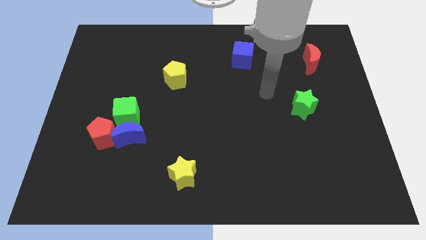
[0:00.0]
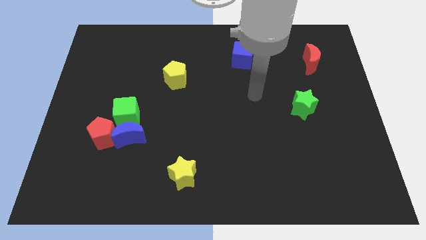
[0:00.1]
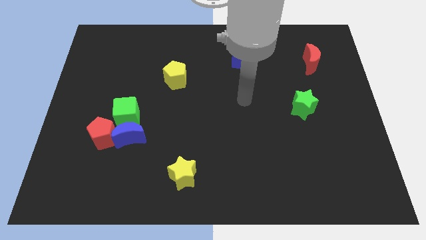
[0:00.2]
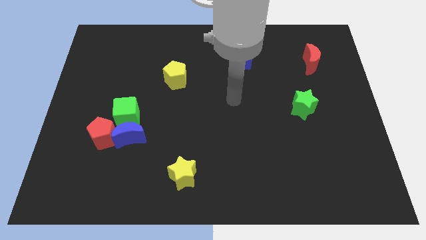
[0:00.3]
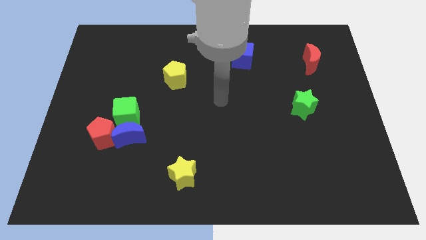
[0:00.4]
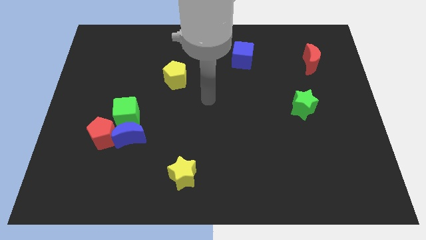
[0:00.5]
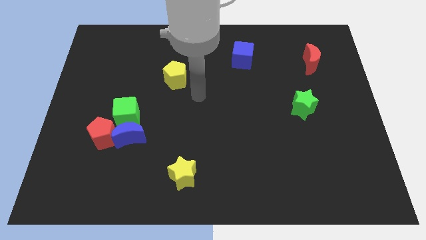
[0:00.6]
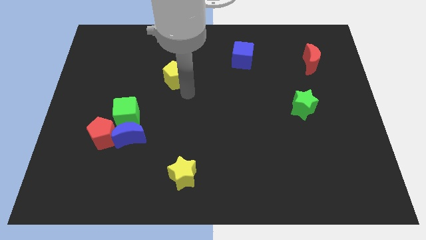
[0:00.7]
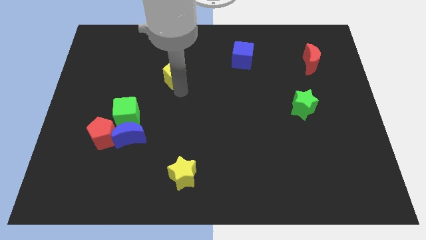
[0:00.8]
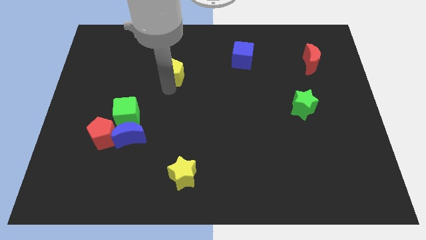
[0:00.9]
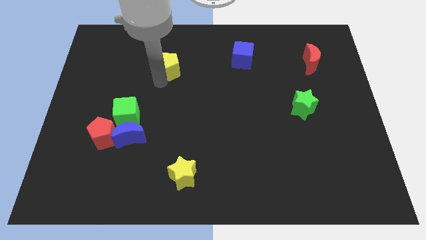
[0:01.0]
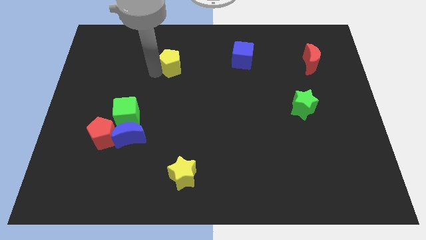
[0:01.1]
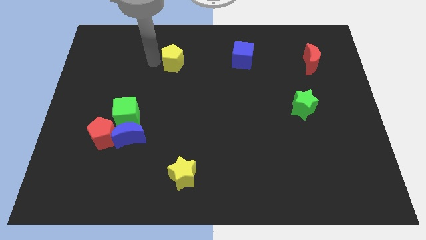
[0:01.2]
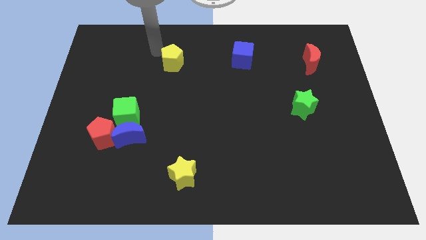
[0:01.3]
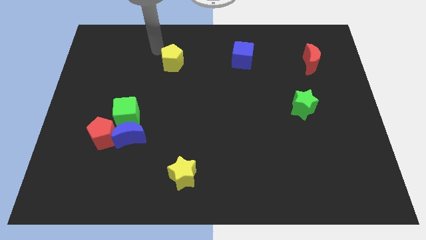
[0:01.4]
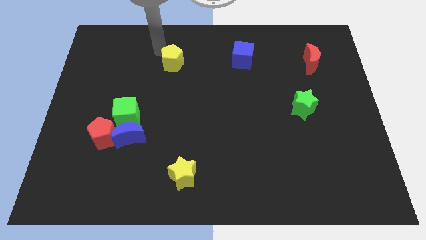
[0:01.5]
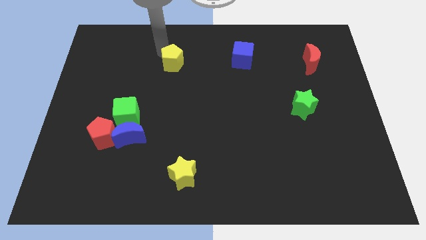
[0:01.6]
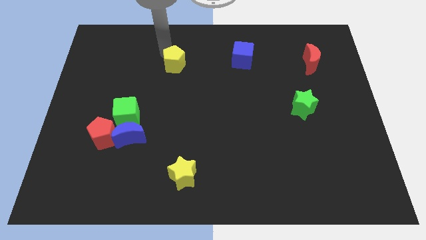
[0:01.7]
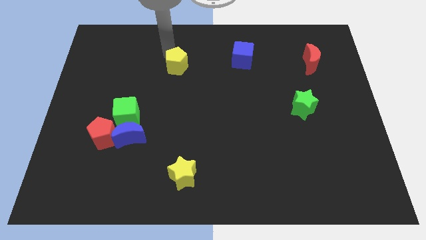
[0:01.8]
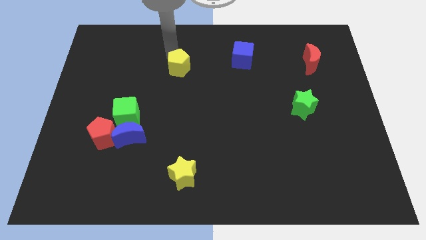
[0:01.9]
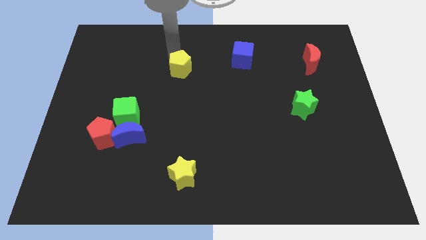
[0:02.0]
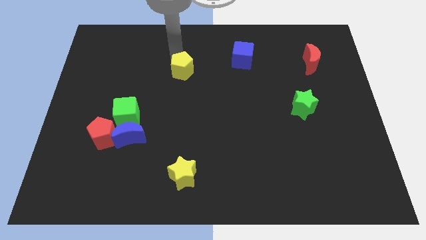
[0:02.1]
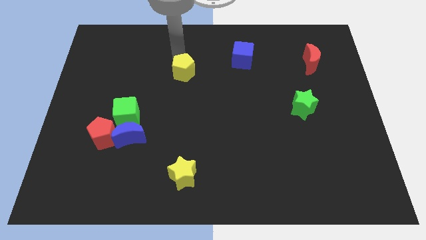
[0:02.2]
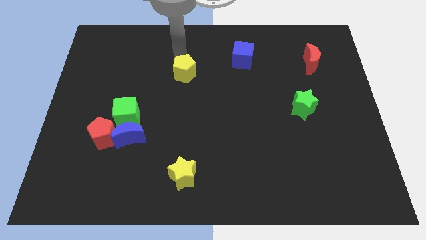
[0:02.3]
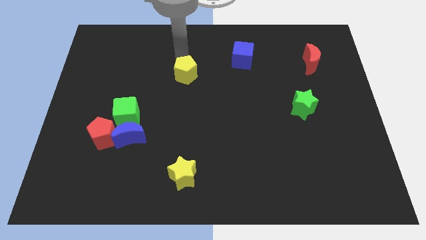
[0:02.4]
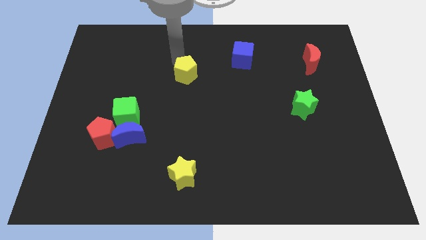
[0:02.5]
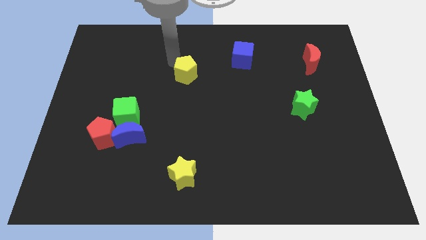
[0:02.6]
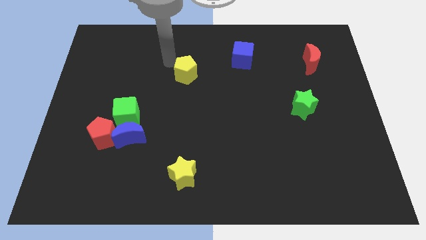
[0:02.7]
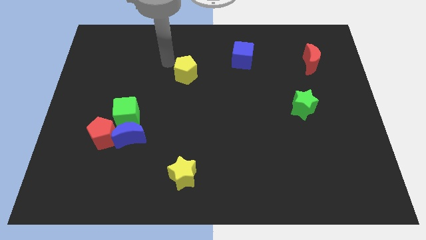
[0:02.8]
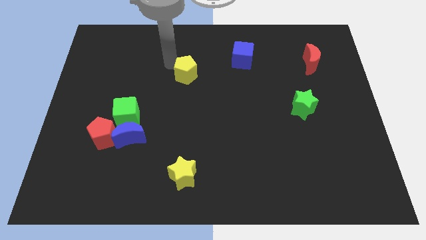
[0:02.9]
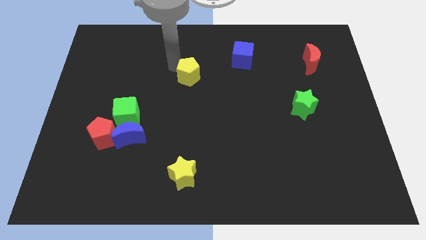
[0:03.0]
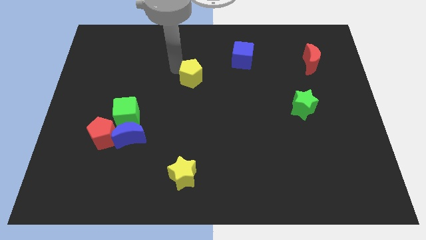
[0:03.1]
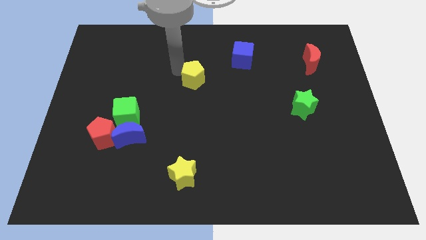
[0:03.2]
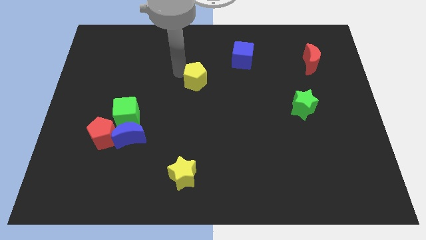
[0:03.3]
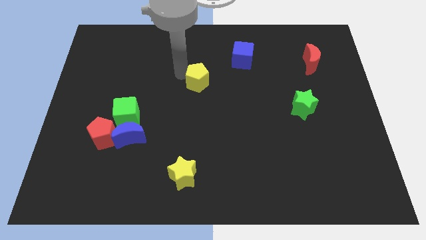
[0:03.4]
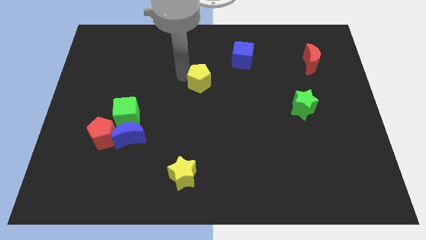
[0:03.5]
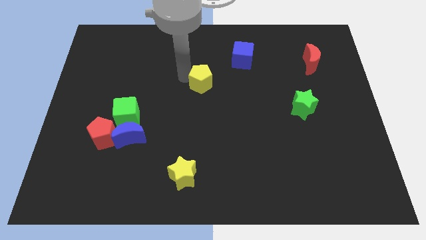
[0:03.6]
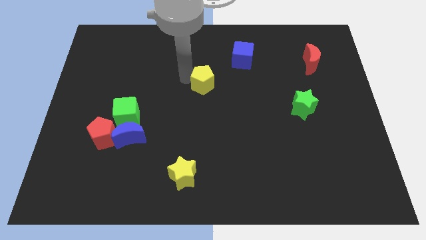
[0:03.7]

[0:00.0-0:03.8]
slide the yellow pentagon somewhat to the right

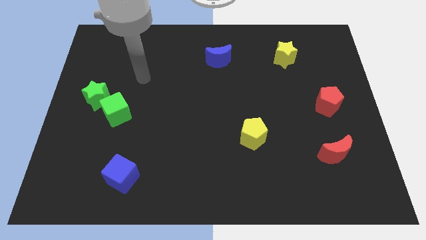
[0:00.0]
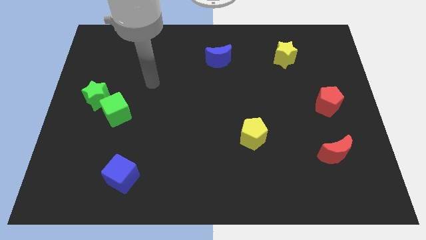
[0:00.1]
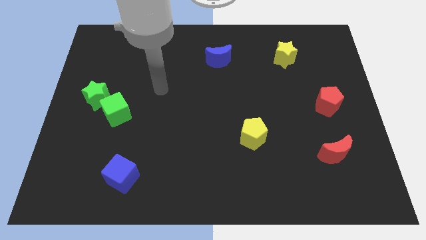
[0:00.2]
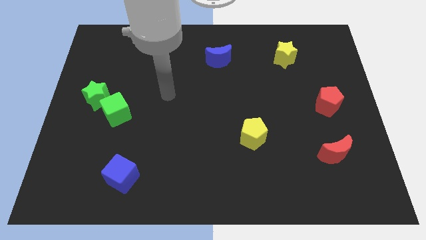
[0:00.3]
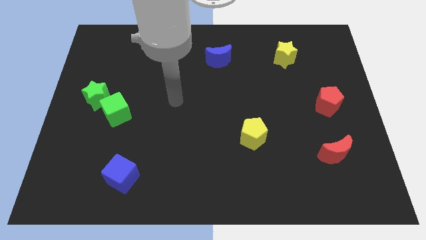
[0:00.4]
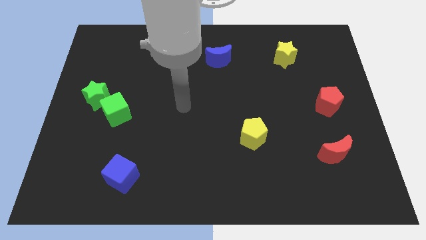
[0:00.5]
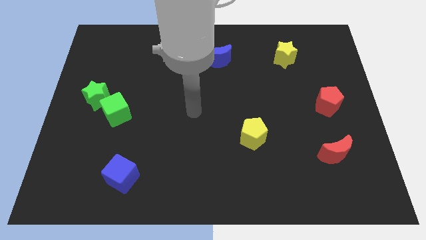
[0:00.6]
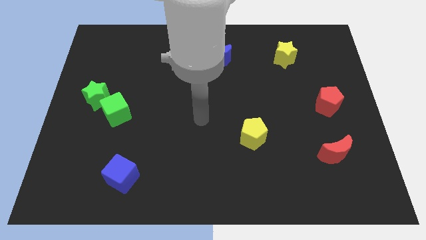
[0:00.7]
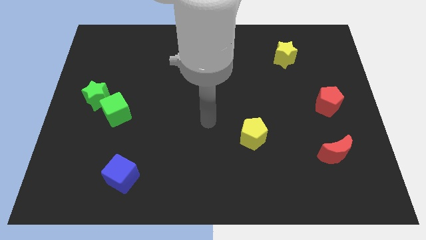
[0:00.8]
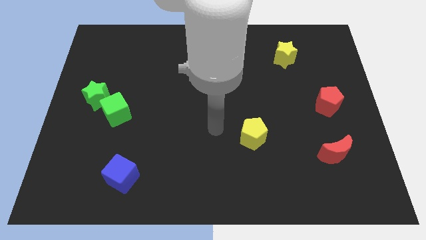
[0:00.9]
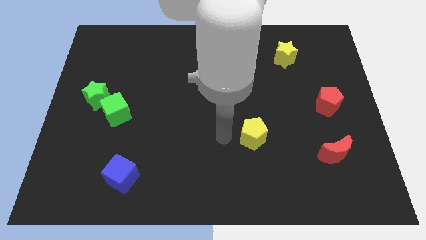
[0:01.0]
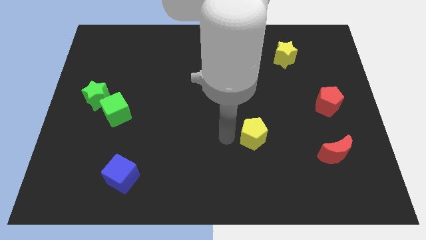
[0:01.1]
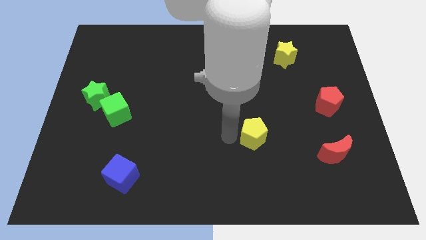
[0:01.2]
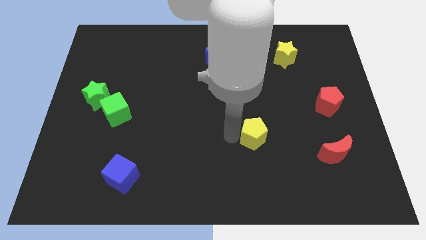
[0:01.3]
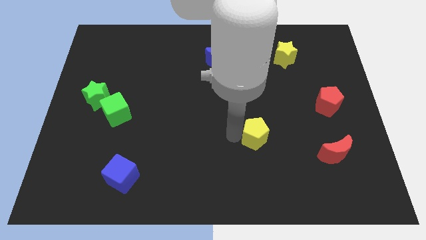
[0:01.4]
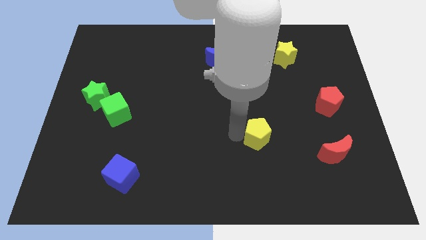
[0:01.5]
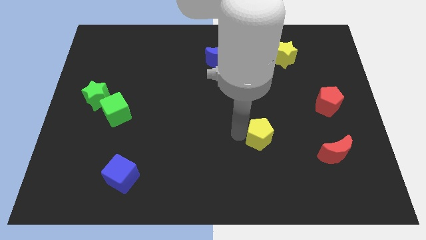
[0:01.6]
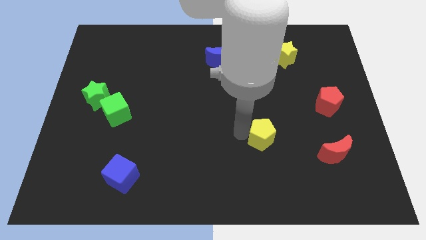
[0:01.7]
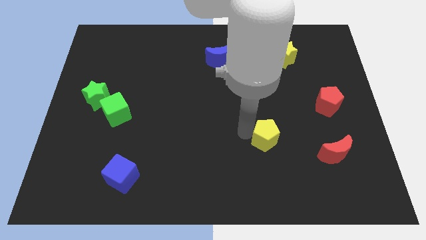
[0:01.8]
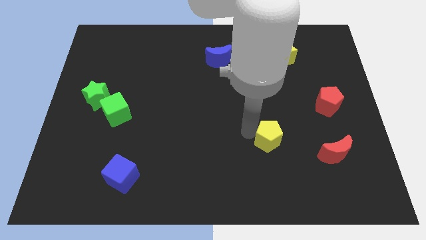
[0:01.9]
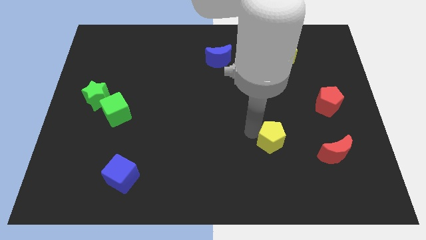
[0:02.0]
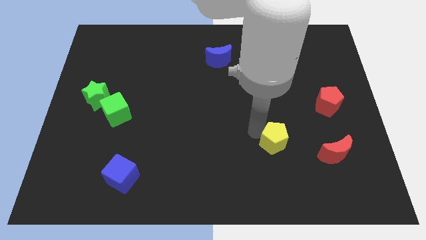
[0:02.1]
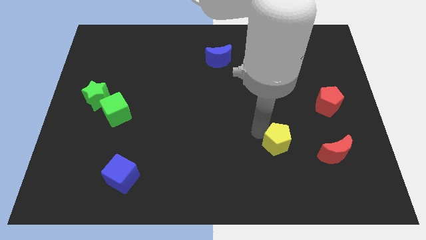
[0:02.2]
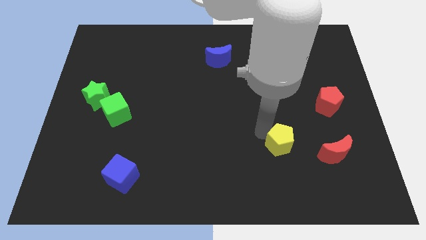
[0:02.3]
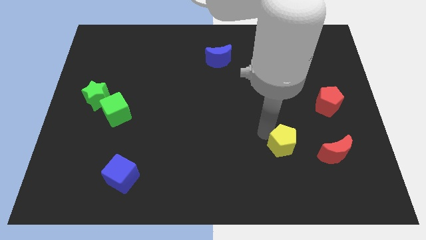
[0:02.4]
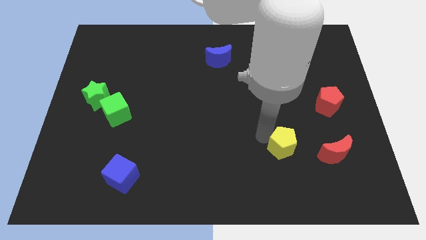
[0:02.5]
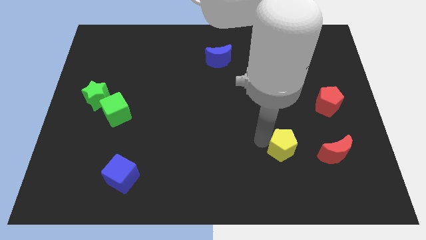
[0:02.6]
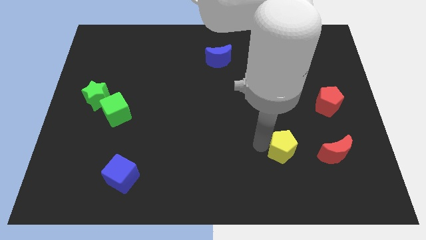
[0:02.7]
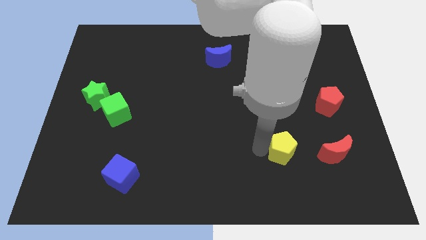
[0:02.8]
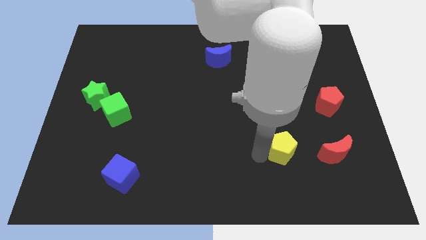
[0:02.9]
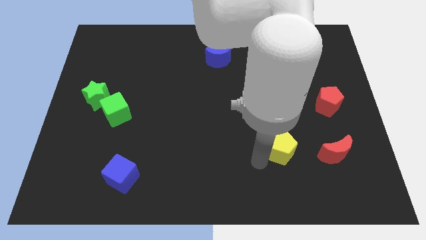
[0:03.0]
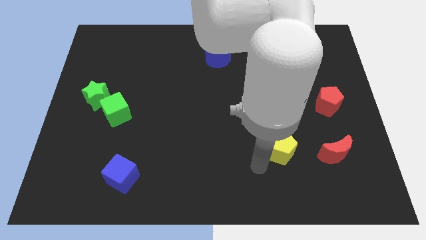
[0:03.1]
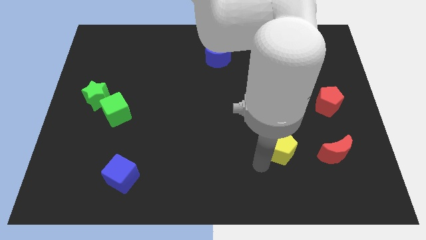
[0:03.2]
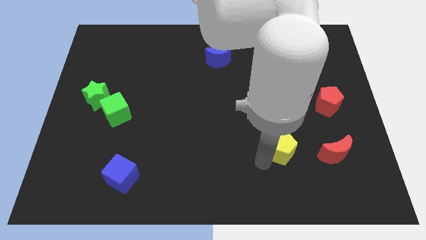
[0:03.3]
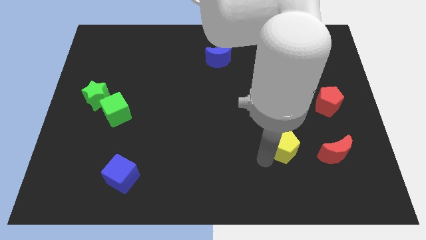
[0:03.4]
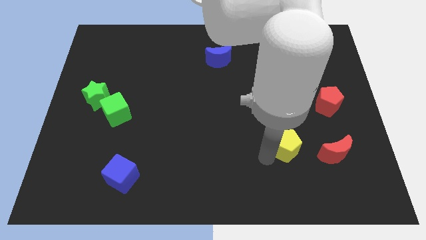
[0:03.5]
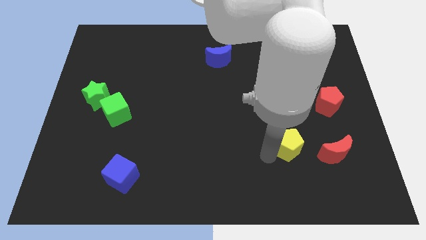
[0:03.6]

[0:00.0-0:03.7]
slide the yellow pentagon right a little

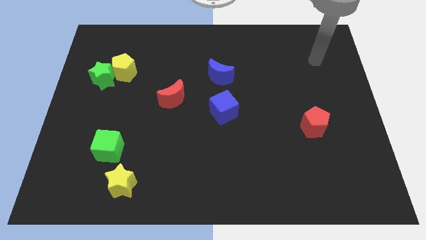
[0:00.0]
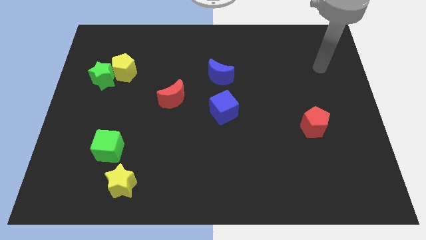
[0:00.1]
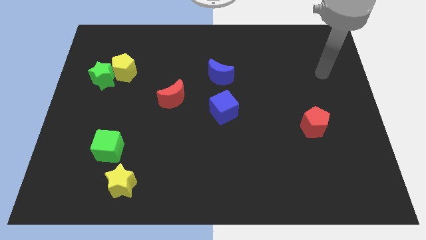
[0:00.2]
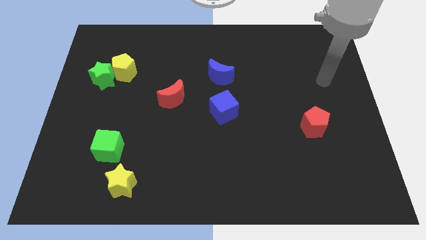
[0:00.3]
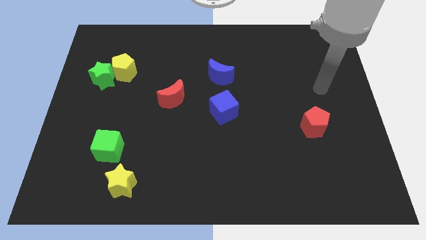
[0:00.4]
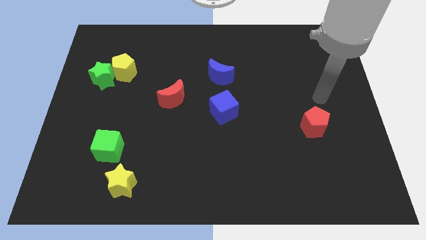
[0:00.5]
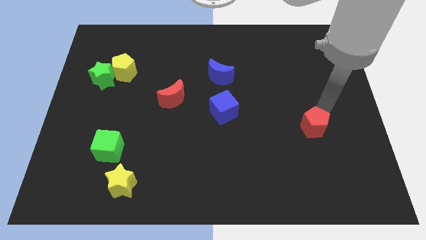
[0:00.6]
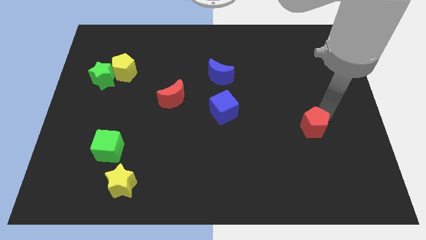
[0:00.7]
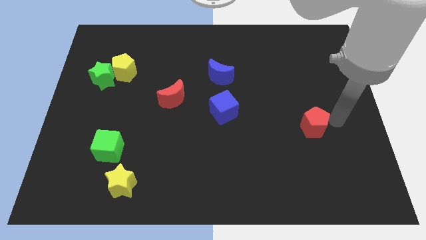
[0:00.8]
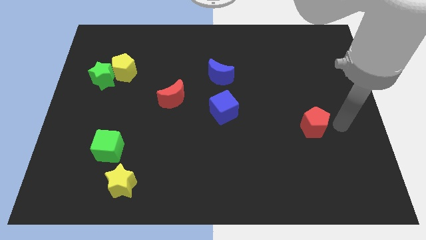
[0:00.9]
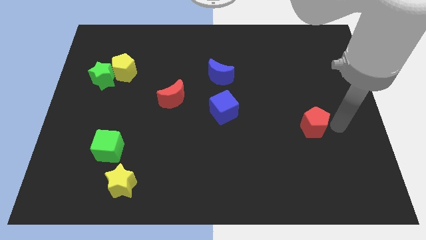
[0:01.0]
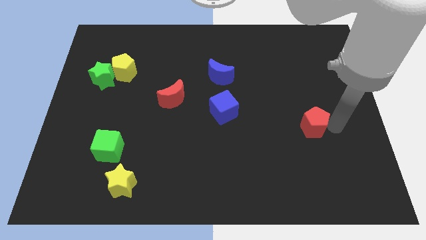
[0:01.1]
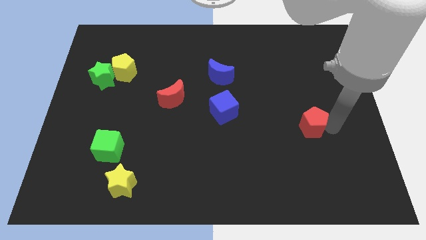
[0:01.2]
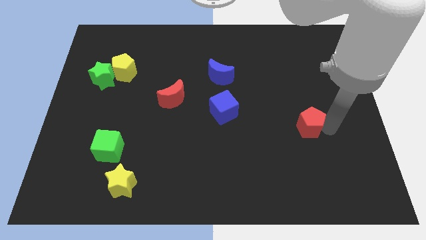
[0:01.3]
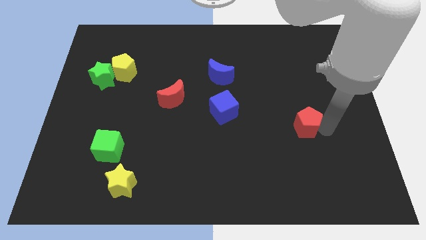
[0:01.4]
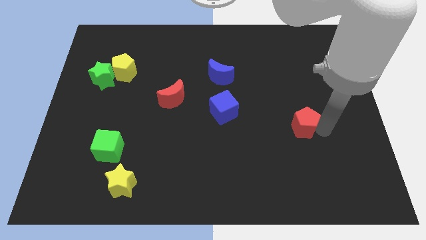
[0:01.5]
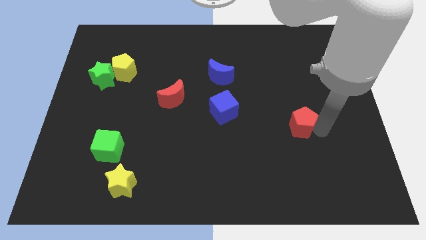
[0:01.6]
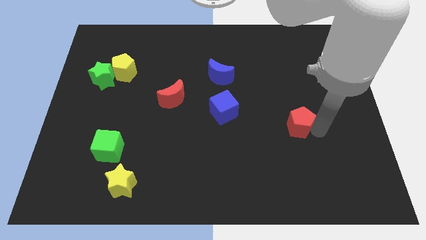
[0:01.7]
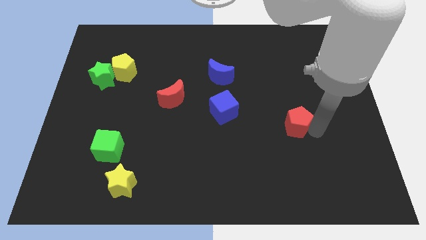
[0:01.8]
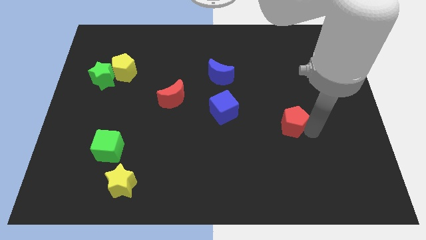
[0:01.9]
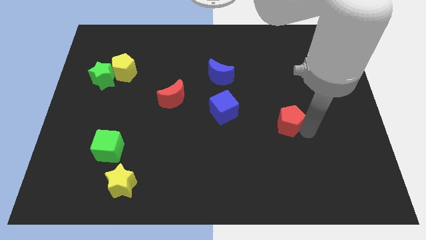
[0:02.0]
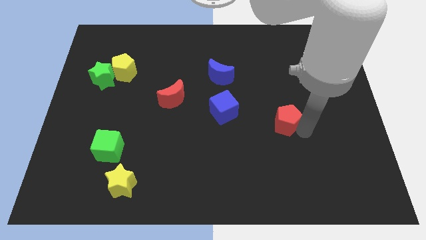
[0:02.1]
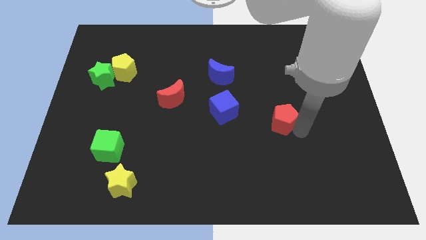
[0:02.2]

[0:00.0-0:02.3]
slightly slide the red pentagon to the left
